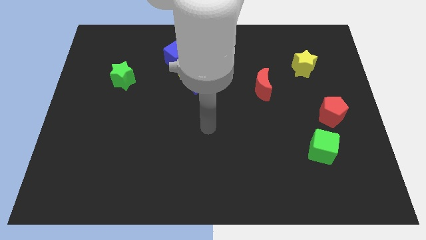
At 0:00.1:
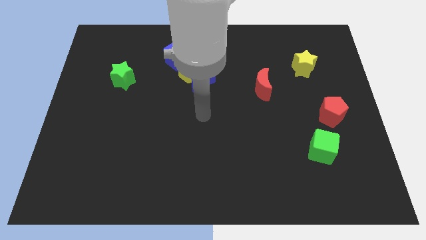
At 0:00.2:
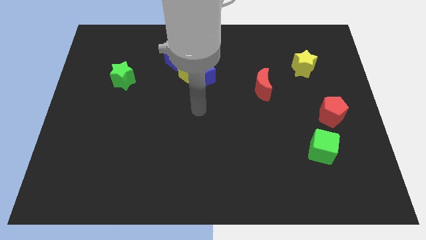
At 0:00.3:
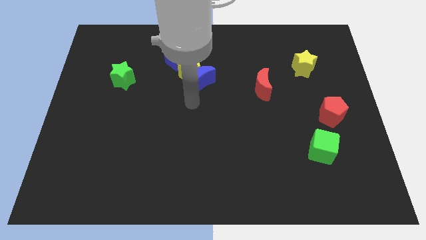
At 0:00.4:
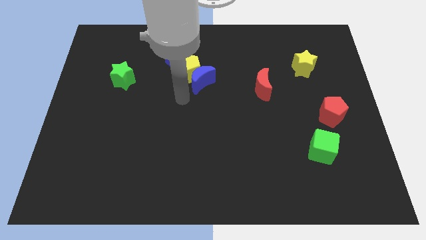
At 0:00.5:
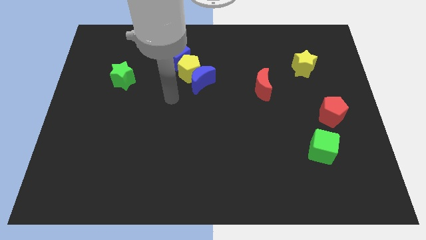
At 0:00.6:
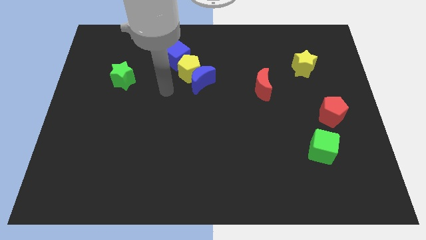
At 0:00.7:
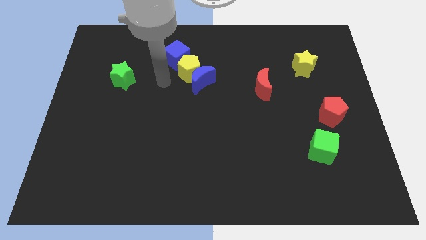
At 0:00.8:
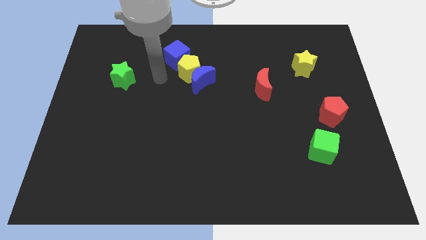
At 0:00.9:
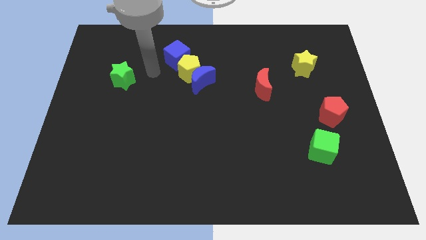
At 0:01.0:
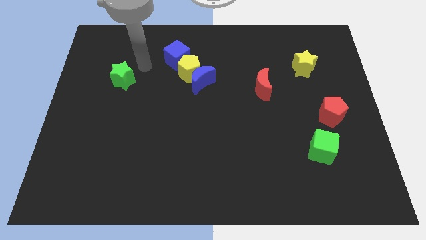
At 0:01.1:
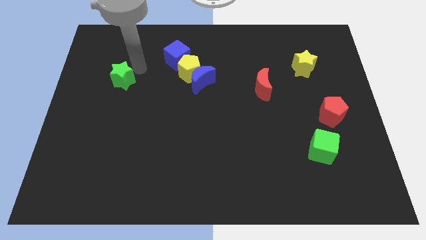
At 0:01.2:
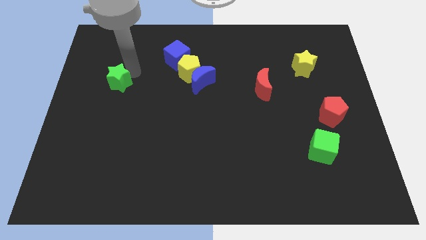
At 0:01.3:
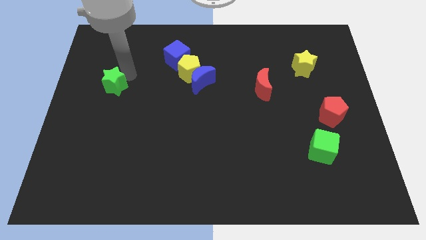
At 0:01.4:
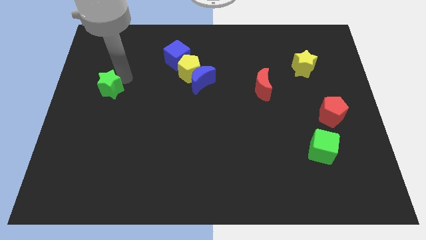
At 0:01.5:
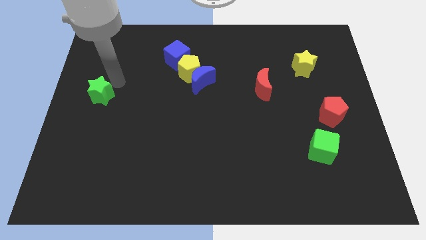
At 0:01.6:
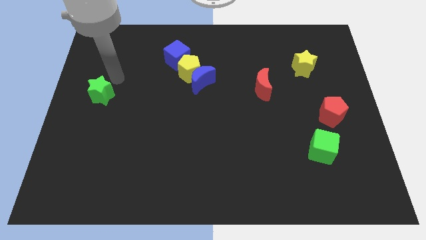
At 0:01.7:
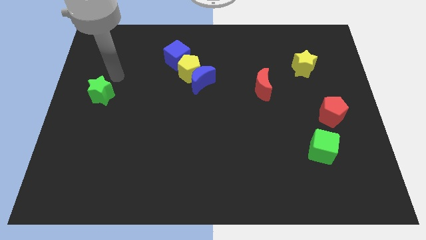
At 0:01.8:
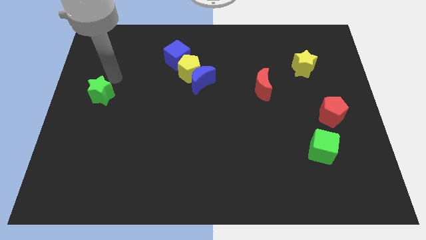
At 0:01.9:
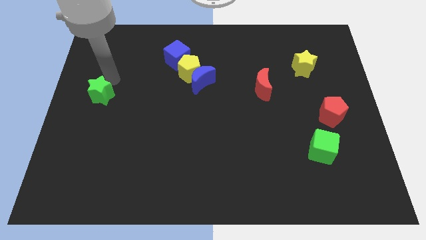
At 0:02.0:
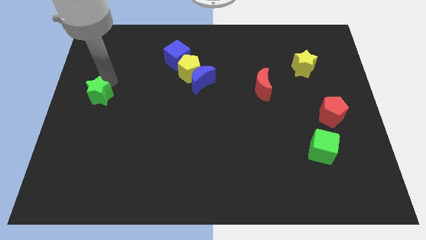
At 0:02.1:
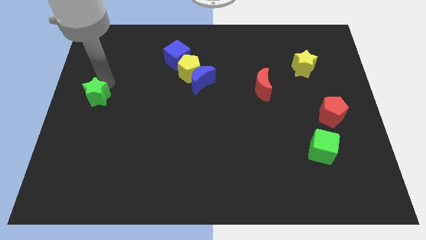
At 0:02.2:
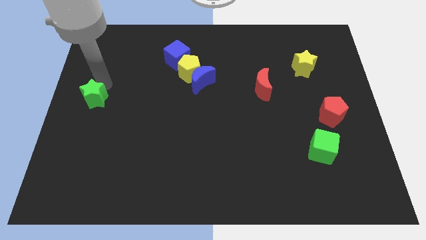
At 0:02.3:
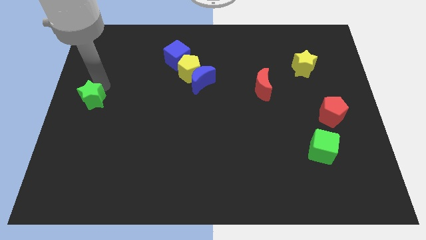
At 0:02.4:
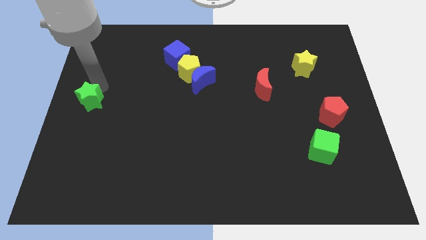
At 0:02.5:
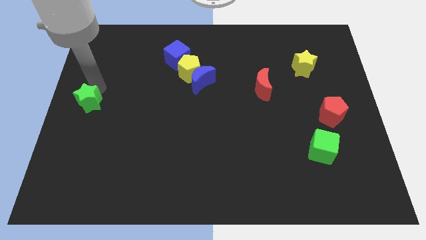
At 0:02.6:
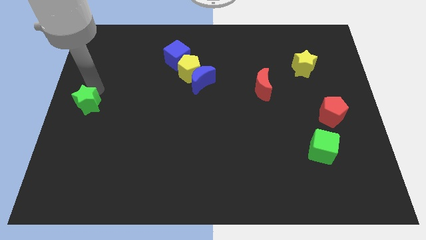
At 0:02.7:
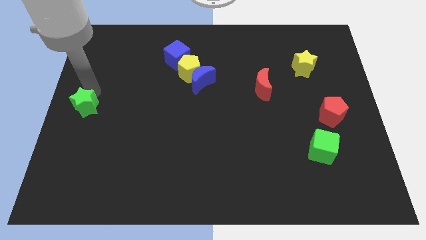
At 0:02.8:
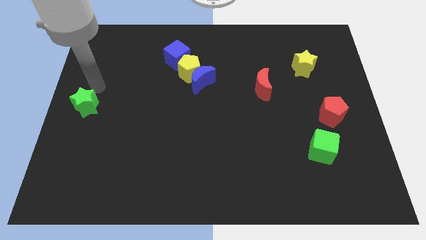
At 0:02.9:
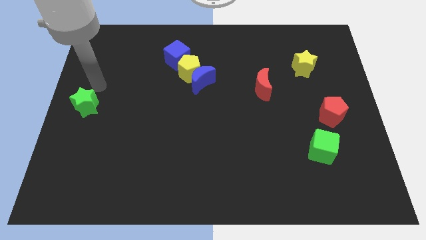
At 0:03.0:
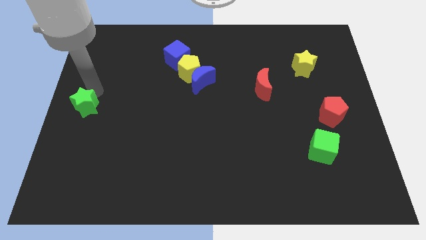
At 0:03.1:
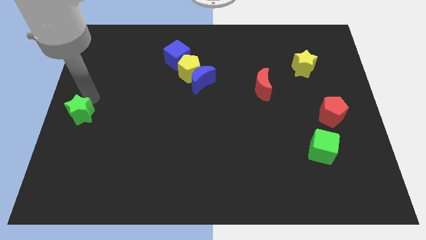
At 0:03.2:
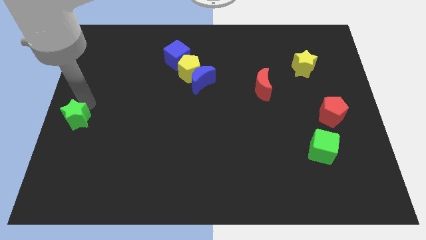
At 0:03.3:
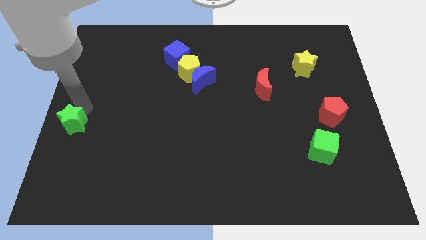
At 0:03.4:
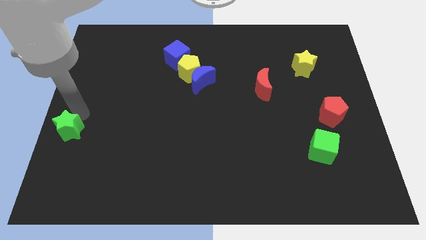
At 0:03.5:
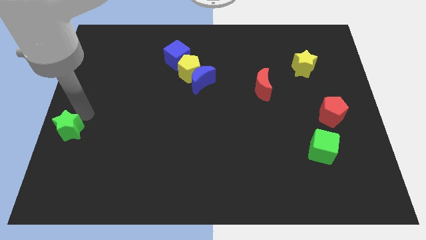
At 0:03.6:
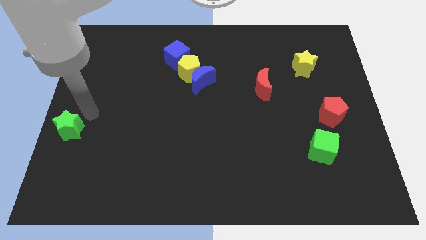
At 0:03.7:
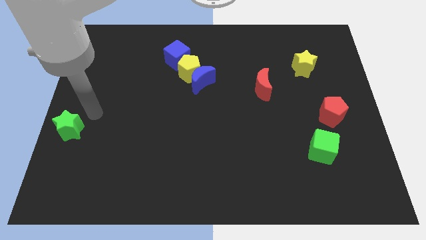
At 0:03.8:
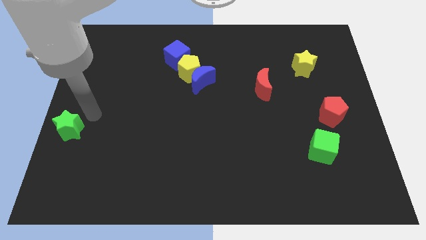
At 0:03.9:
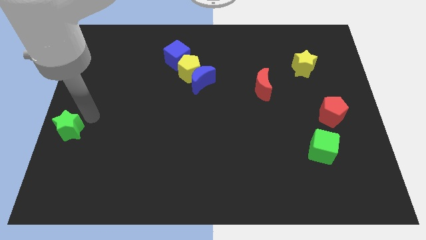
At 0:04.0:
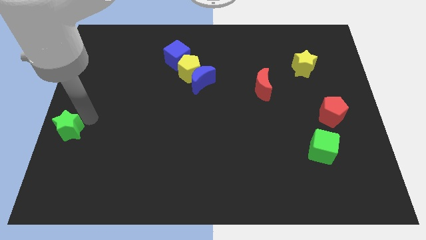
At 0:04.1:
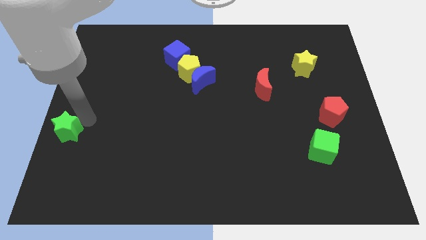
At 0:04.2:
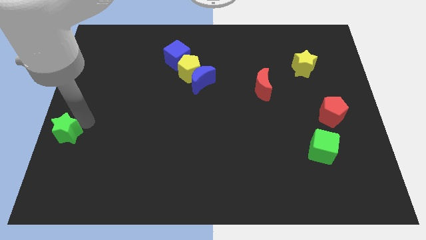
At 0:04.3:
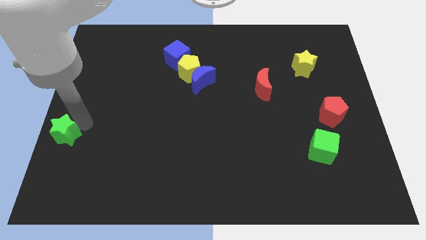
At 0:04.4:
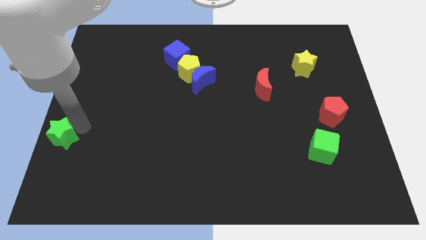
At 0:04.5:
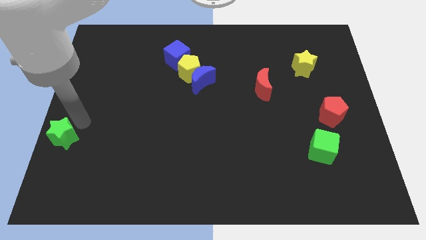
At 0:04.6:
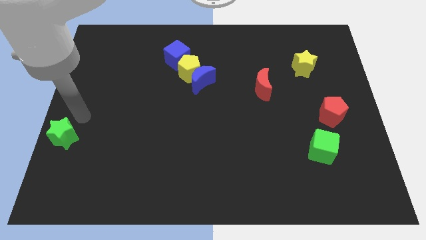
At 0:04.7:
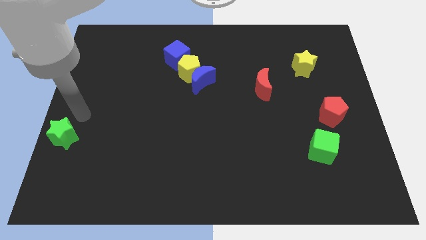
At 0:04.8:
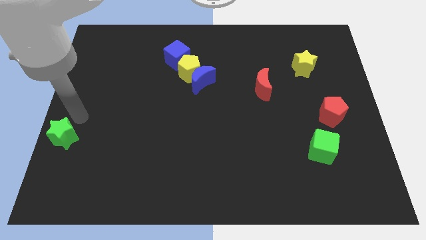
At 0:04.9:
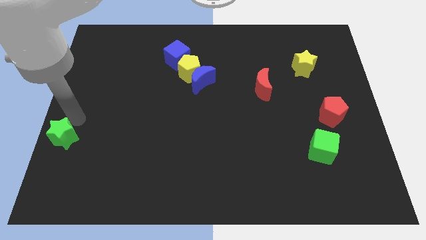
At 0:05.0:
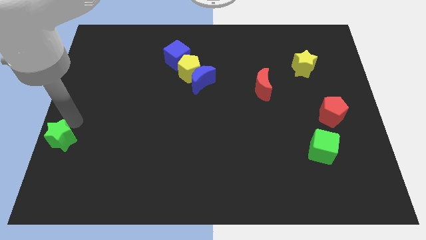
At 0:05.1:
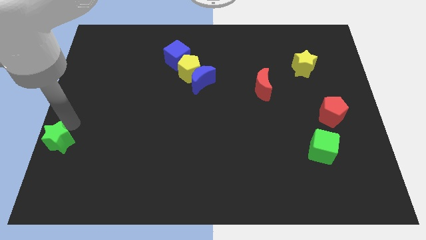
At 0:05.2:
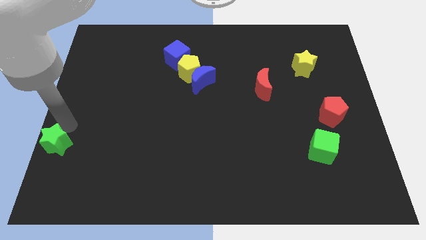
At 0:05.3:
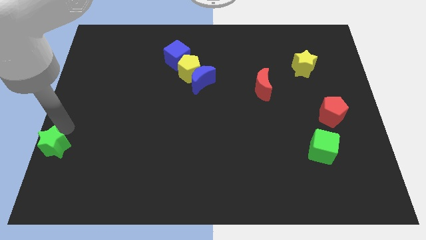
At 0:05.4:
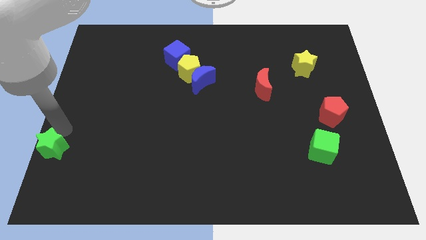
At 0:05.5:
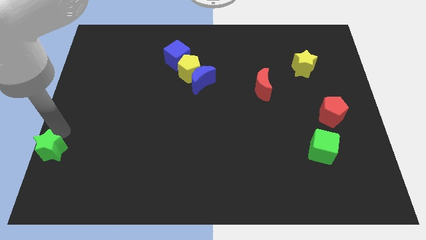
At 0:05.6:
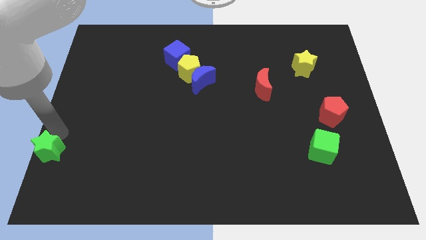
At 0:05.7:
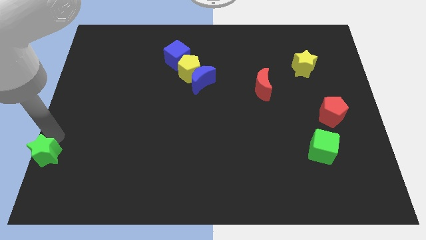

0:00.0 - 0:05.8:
move the green star to the lower left corner

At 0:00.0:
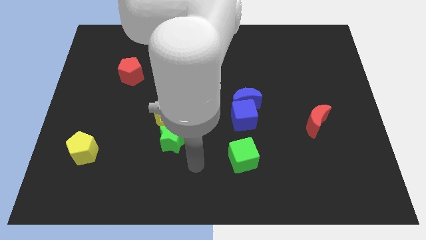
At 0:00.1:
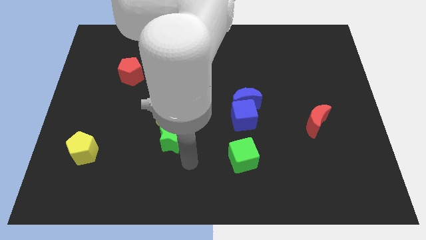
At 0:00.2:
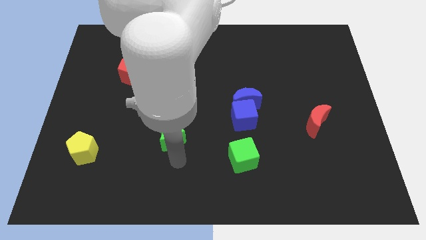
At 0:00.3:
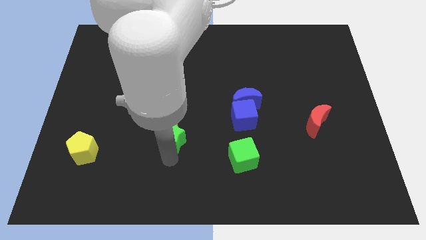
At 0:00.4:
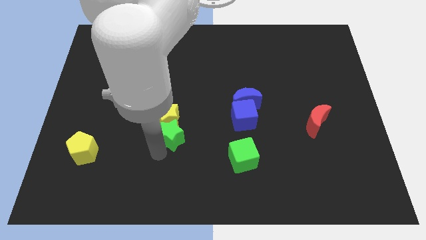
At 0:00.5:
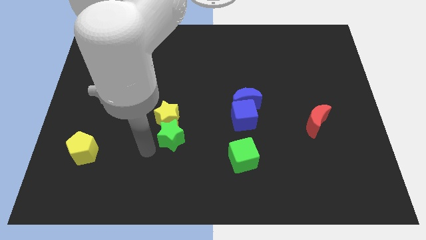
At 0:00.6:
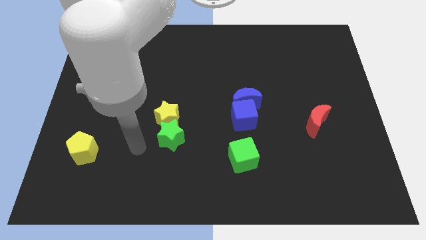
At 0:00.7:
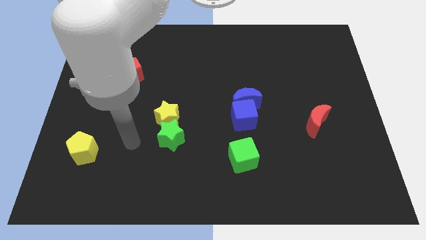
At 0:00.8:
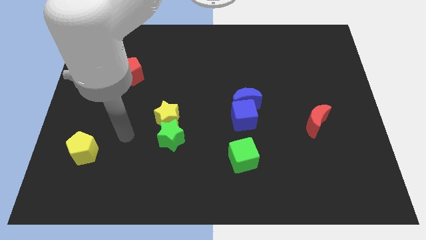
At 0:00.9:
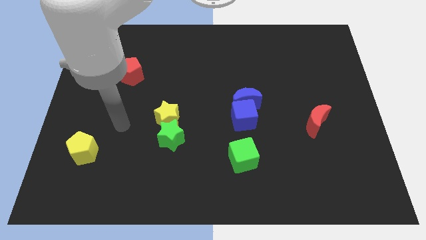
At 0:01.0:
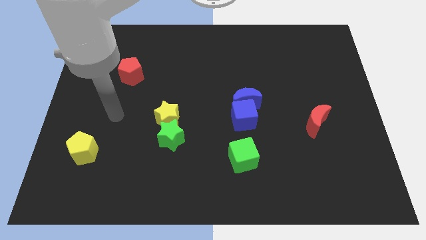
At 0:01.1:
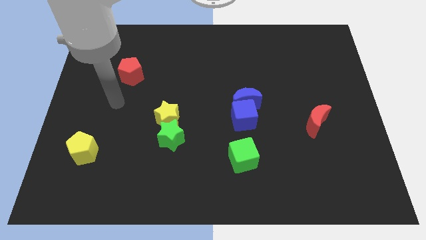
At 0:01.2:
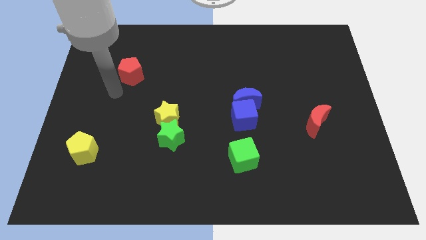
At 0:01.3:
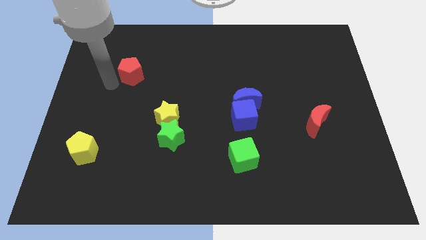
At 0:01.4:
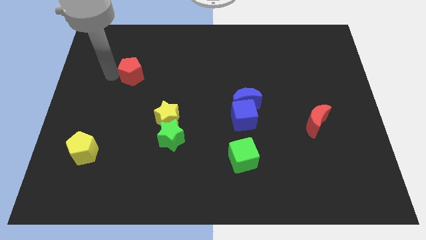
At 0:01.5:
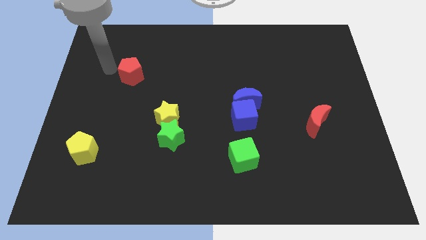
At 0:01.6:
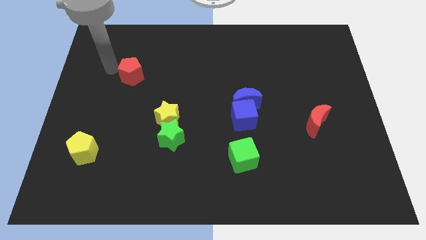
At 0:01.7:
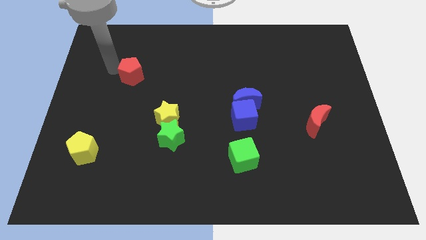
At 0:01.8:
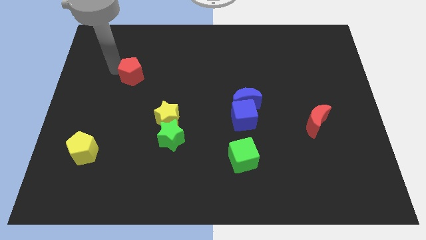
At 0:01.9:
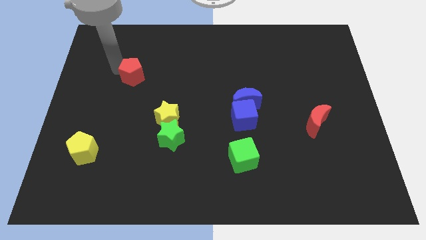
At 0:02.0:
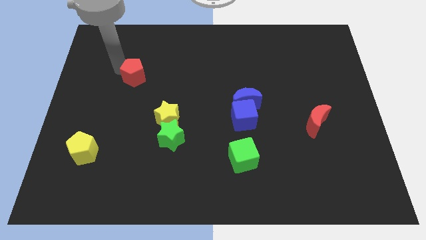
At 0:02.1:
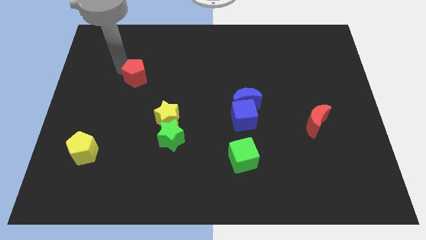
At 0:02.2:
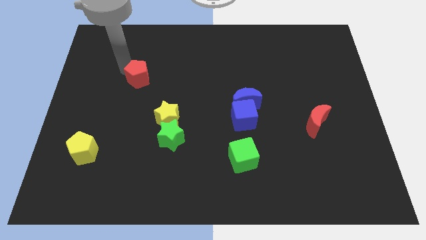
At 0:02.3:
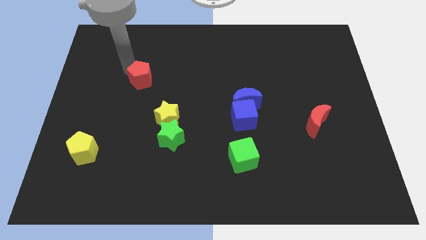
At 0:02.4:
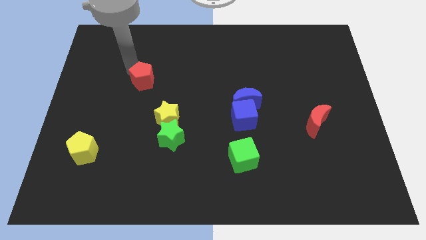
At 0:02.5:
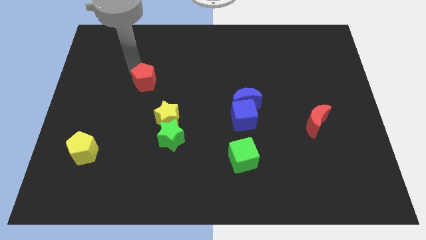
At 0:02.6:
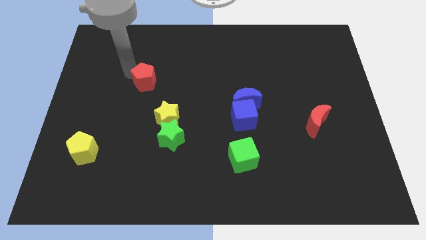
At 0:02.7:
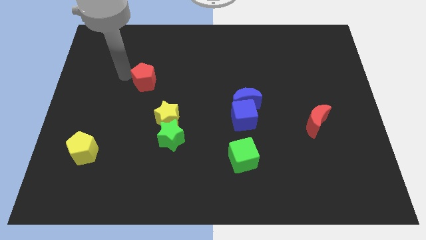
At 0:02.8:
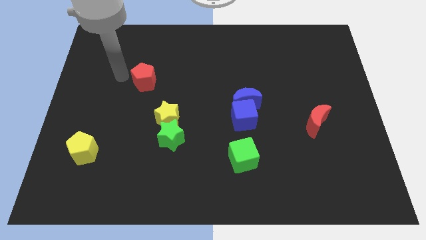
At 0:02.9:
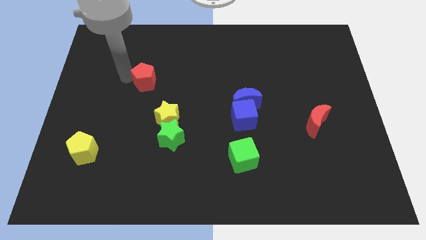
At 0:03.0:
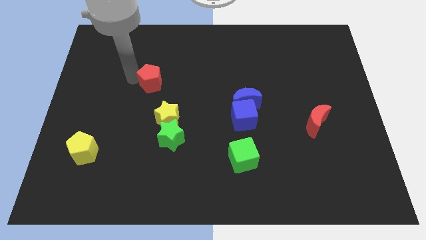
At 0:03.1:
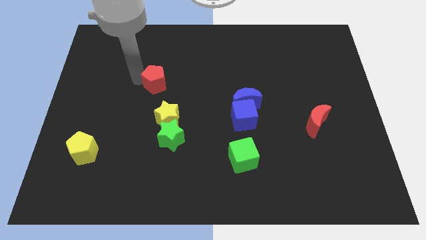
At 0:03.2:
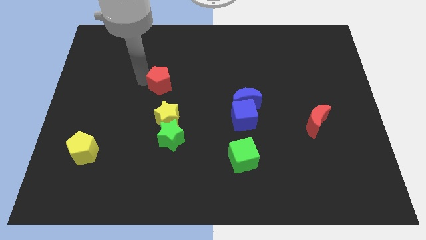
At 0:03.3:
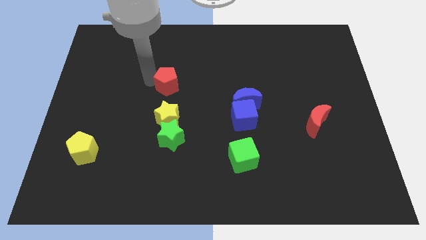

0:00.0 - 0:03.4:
move the red pentagon to the center of the board
